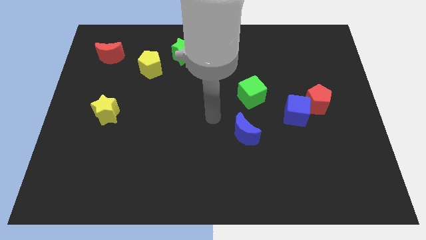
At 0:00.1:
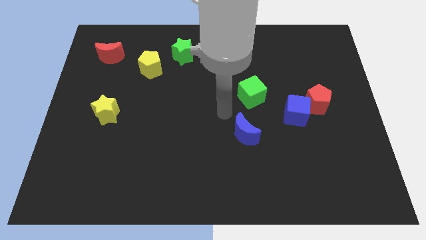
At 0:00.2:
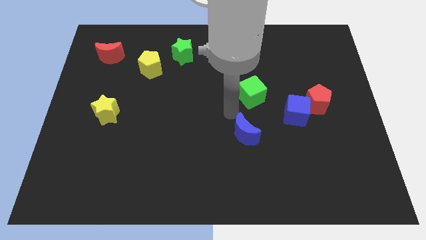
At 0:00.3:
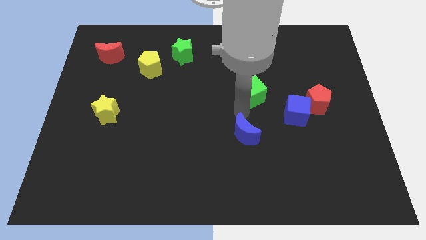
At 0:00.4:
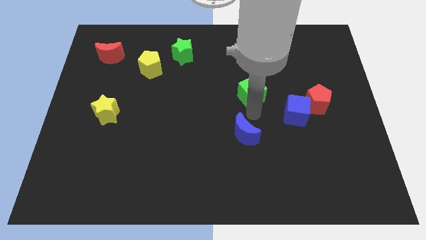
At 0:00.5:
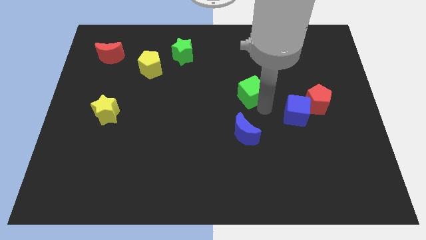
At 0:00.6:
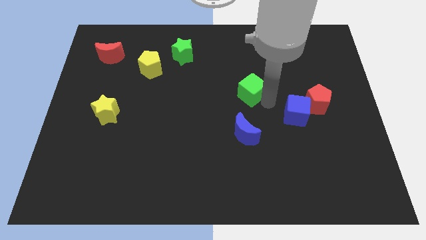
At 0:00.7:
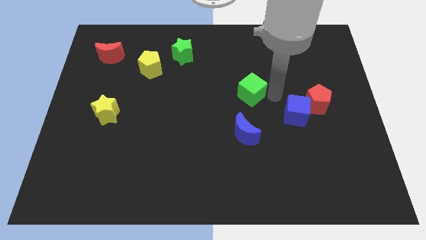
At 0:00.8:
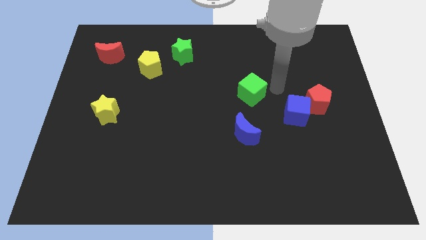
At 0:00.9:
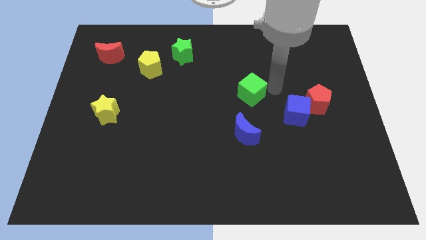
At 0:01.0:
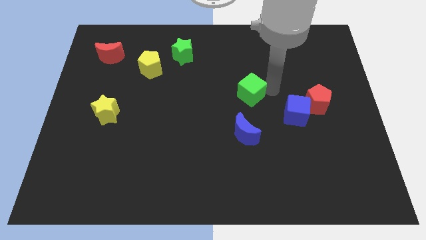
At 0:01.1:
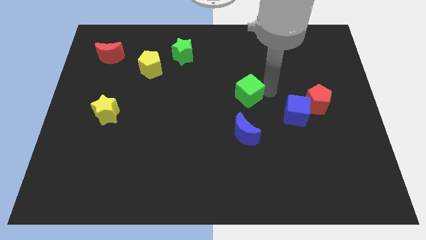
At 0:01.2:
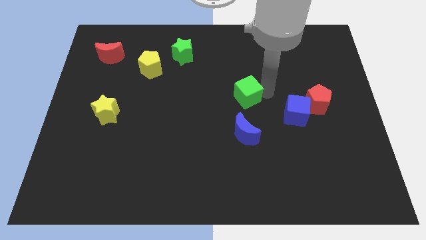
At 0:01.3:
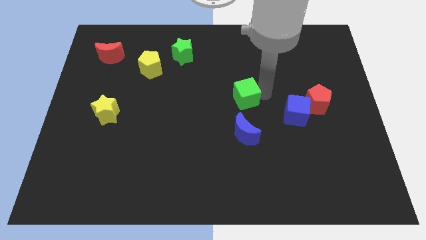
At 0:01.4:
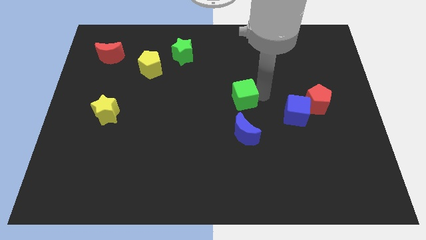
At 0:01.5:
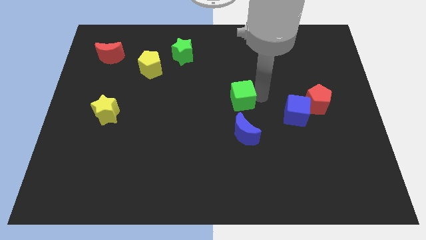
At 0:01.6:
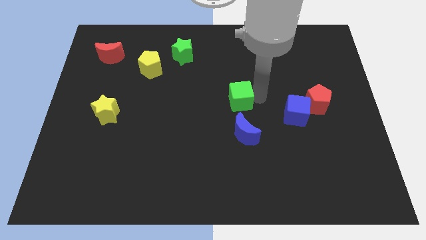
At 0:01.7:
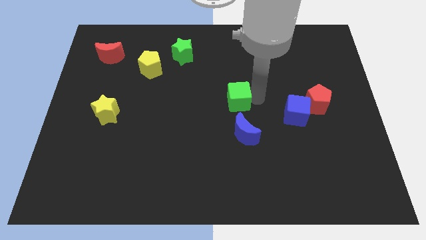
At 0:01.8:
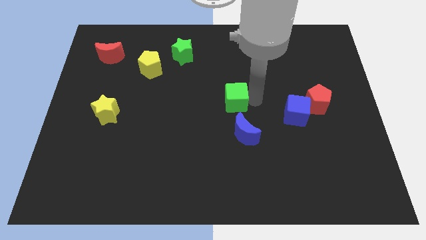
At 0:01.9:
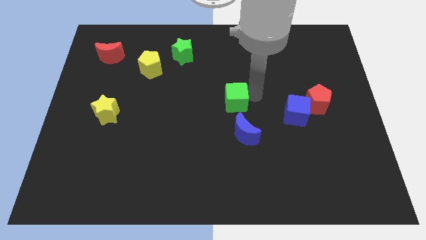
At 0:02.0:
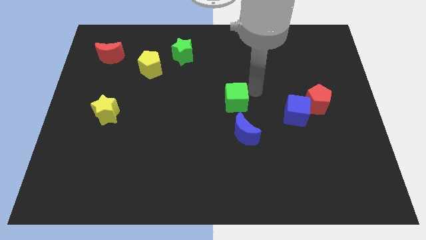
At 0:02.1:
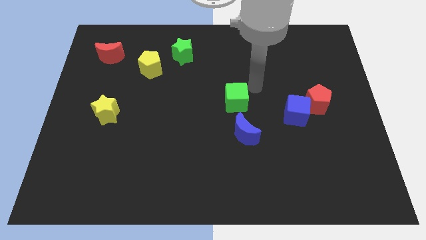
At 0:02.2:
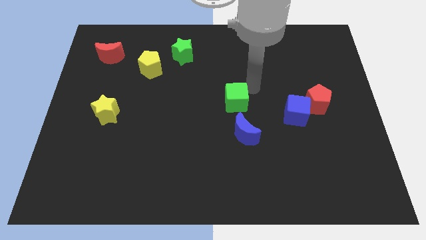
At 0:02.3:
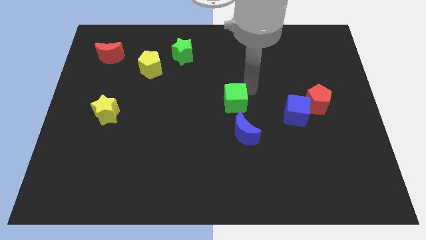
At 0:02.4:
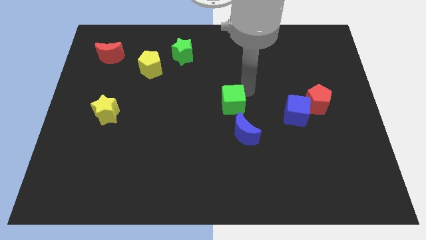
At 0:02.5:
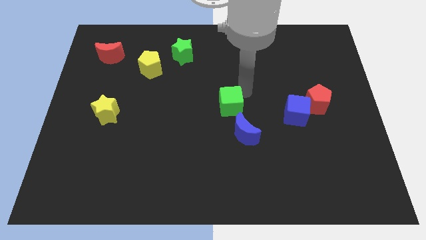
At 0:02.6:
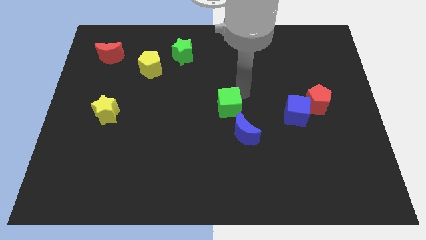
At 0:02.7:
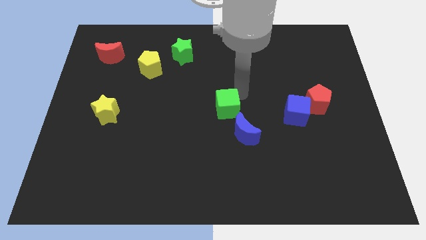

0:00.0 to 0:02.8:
move the green cube a little bit downwards and then left

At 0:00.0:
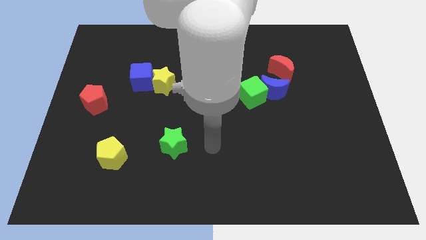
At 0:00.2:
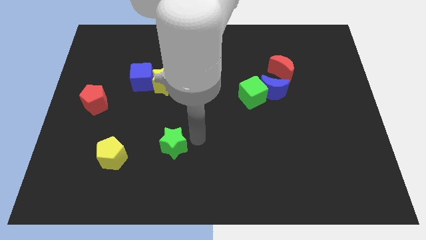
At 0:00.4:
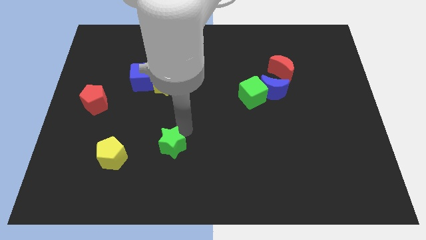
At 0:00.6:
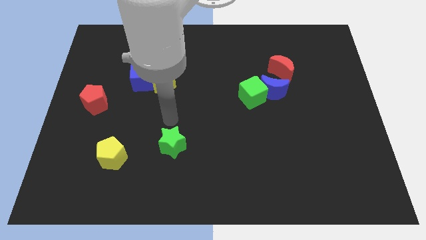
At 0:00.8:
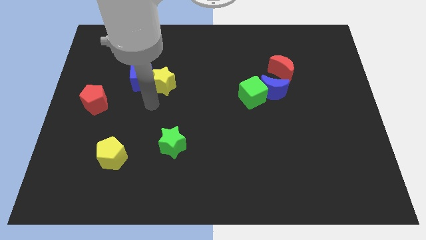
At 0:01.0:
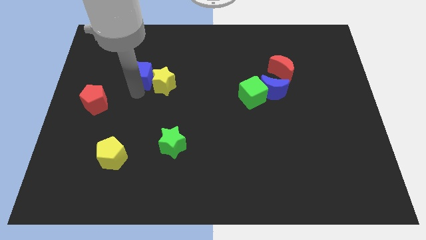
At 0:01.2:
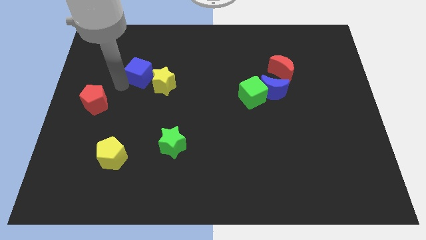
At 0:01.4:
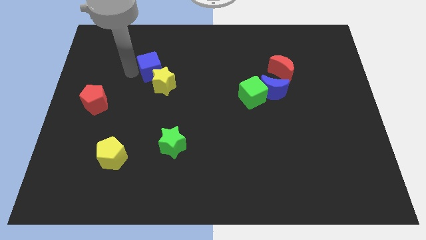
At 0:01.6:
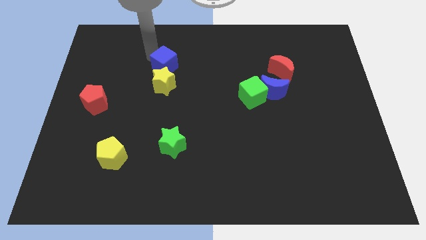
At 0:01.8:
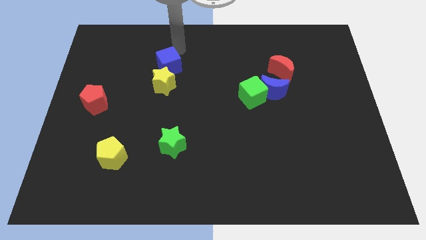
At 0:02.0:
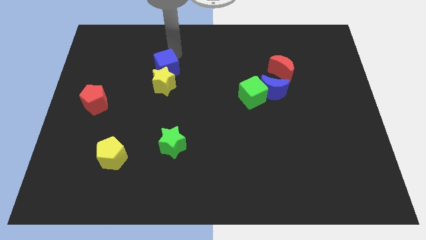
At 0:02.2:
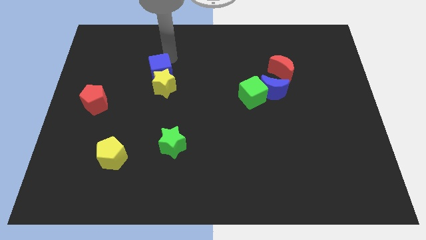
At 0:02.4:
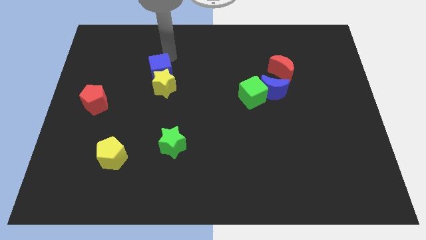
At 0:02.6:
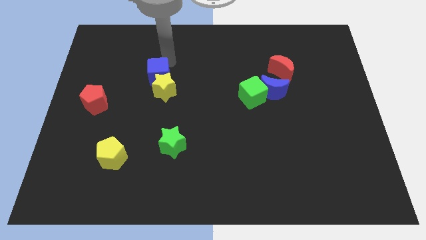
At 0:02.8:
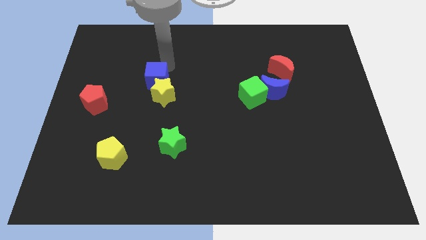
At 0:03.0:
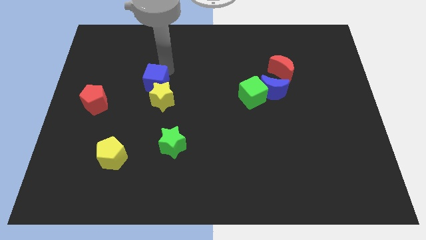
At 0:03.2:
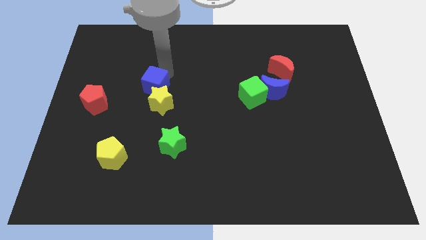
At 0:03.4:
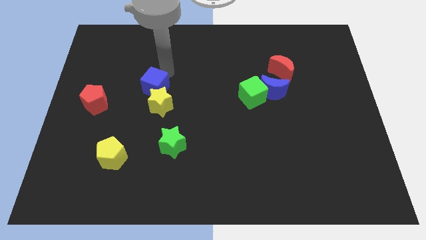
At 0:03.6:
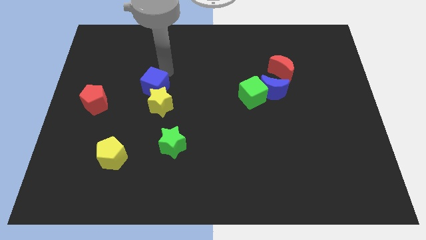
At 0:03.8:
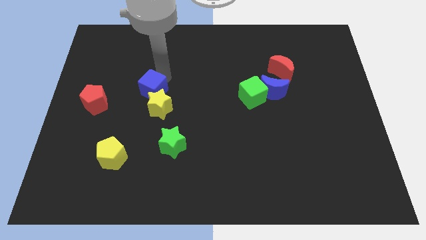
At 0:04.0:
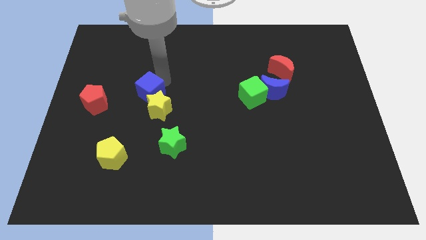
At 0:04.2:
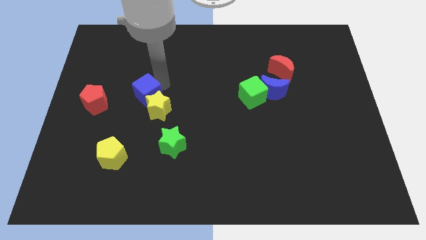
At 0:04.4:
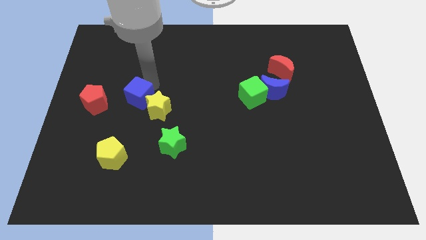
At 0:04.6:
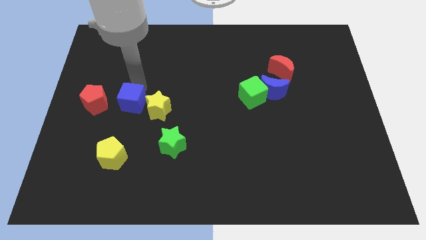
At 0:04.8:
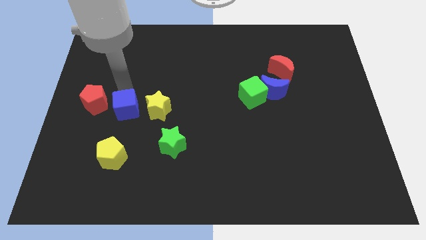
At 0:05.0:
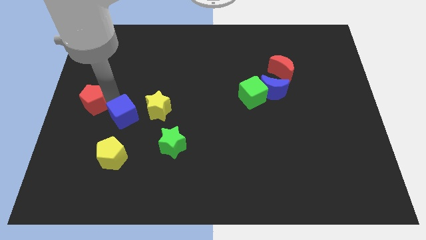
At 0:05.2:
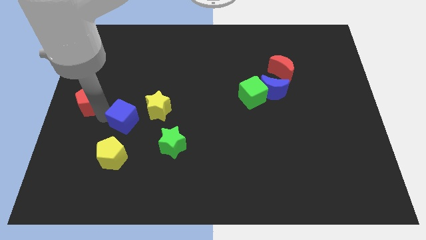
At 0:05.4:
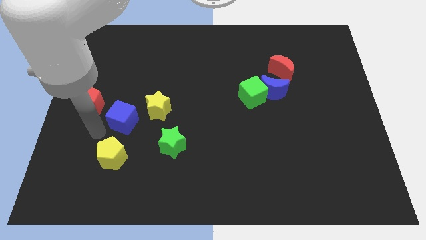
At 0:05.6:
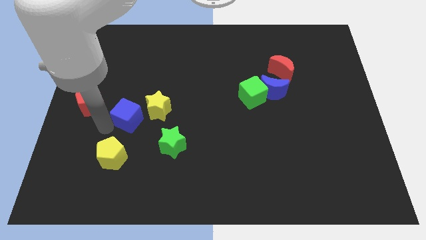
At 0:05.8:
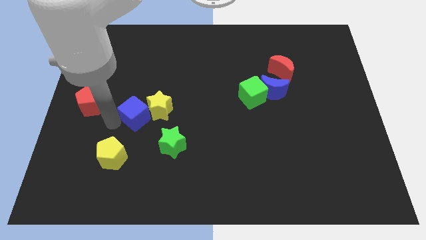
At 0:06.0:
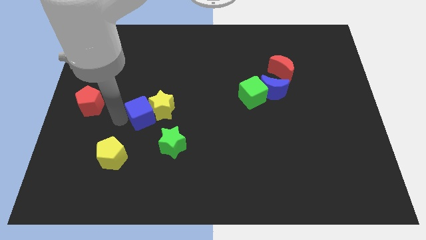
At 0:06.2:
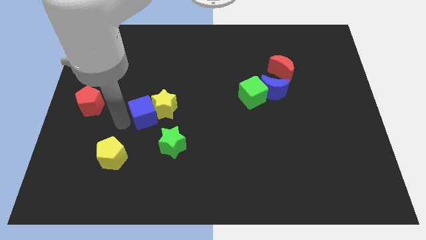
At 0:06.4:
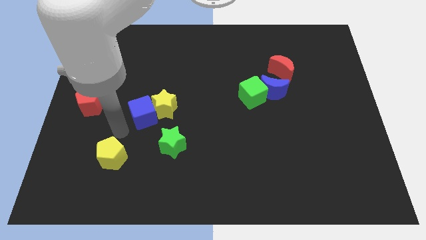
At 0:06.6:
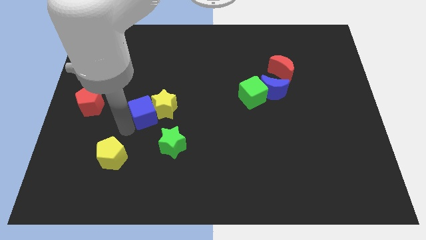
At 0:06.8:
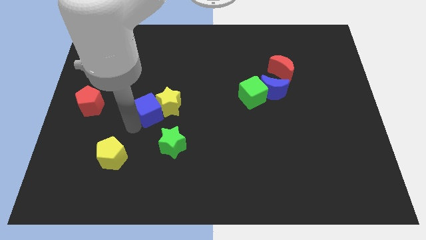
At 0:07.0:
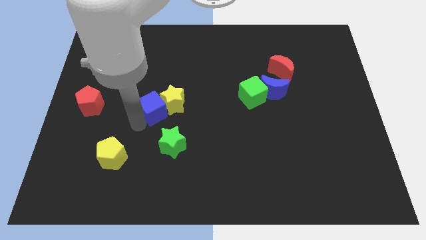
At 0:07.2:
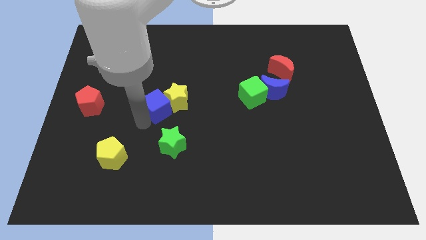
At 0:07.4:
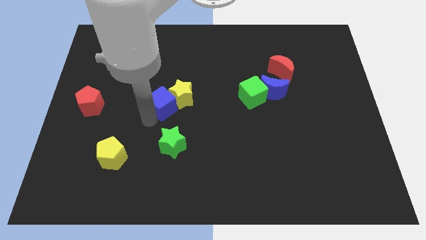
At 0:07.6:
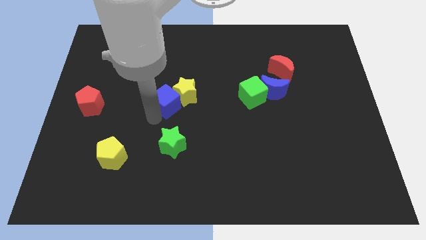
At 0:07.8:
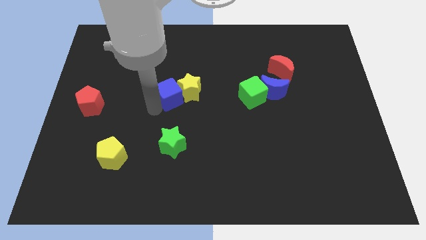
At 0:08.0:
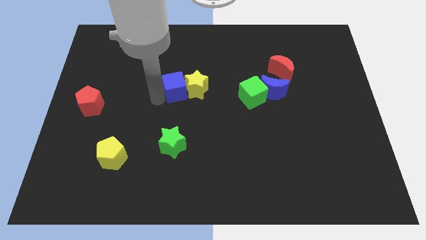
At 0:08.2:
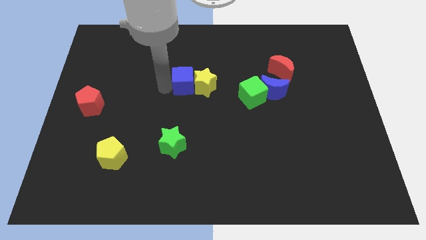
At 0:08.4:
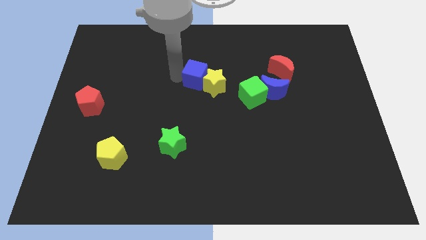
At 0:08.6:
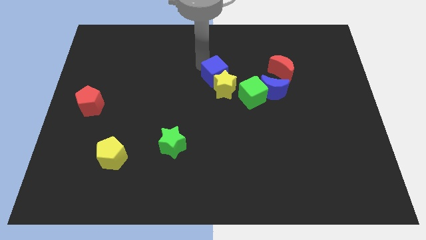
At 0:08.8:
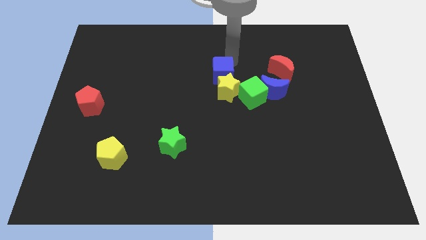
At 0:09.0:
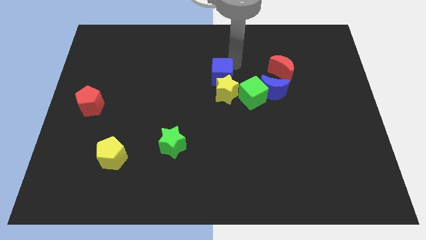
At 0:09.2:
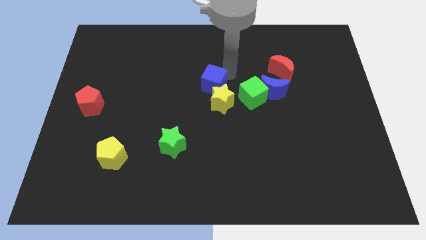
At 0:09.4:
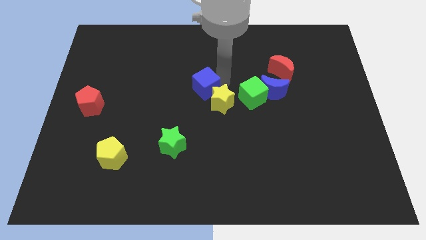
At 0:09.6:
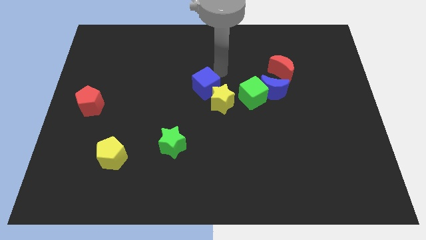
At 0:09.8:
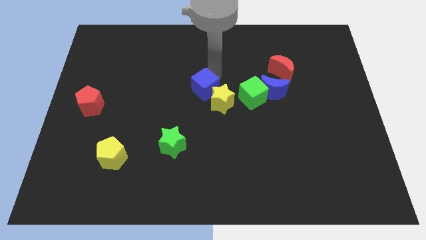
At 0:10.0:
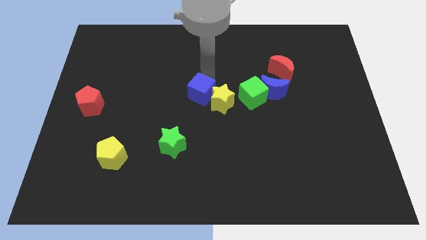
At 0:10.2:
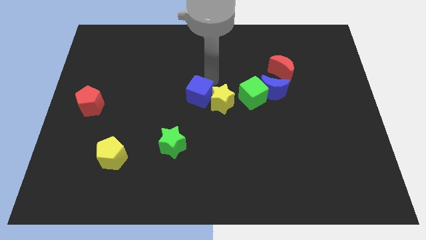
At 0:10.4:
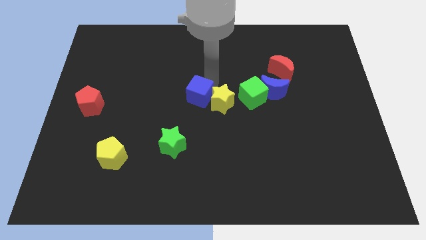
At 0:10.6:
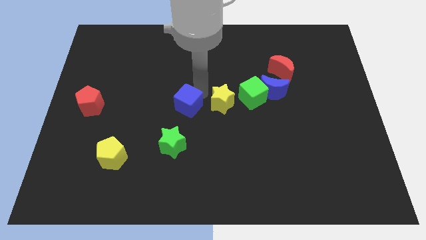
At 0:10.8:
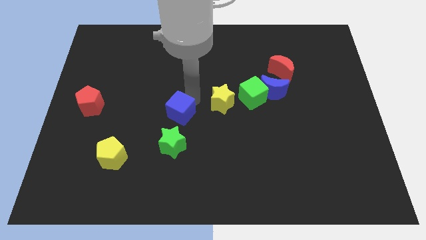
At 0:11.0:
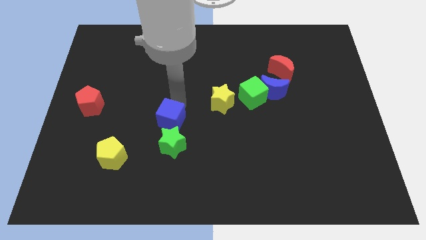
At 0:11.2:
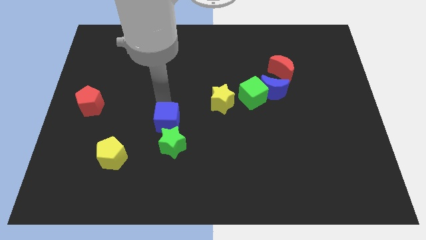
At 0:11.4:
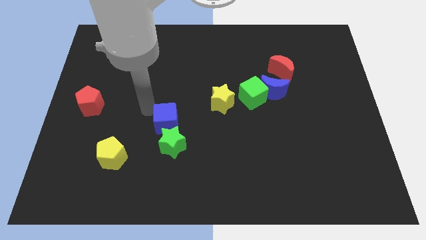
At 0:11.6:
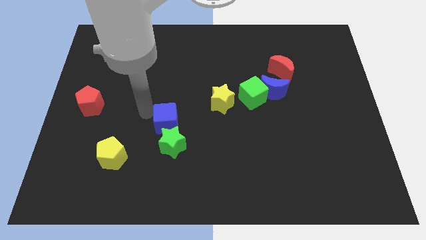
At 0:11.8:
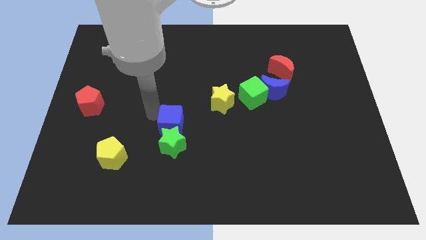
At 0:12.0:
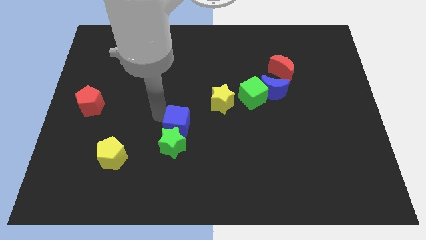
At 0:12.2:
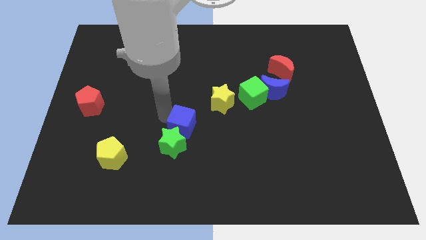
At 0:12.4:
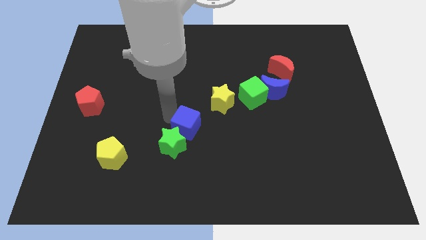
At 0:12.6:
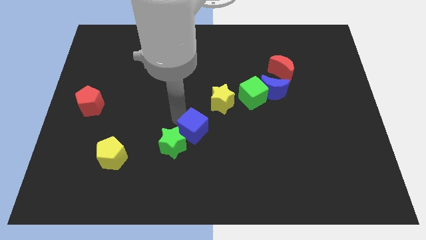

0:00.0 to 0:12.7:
push the blue cube diagonally down and right
